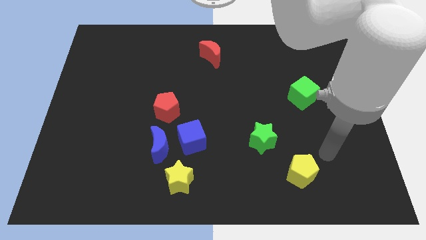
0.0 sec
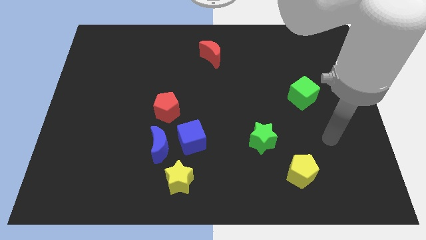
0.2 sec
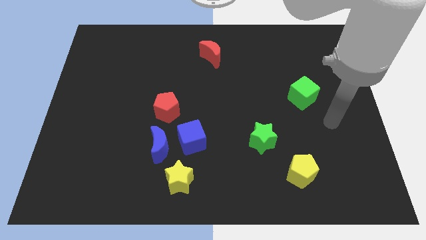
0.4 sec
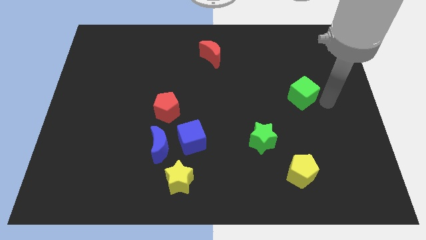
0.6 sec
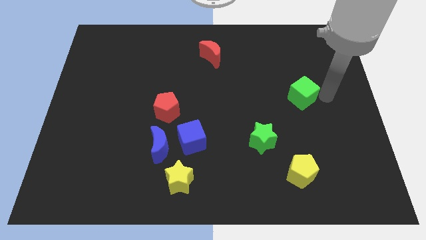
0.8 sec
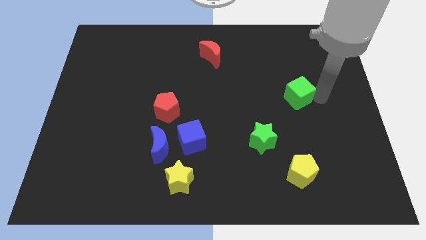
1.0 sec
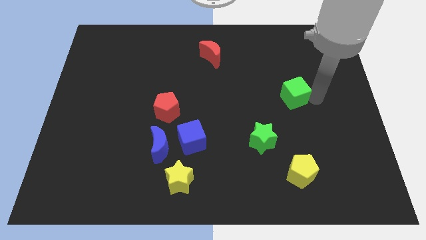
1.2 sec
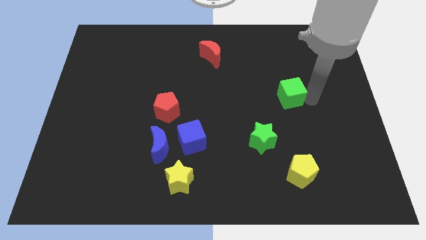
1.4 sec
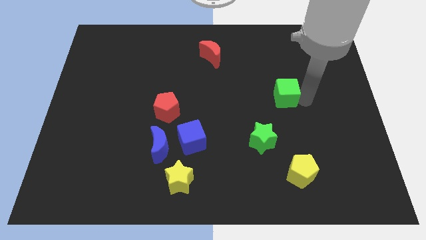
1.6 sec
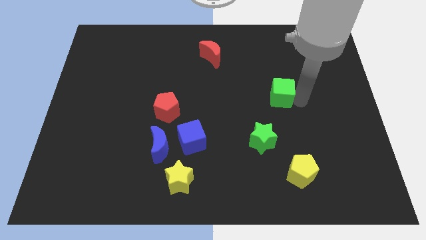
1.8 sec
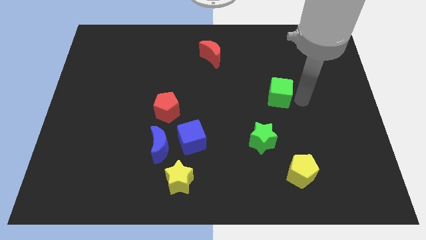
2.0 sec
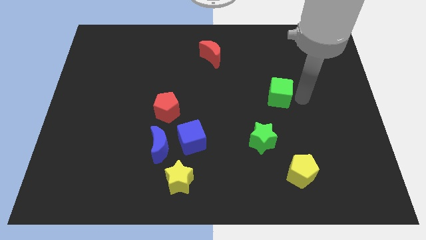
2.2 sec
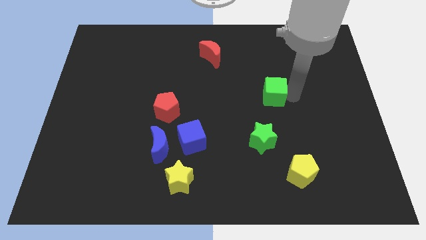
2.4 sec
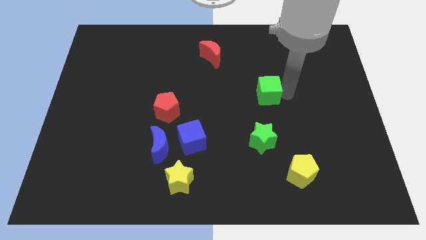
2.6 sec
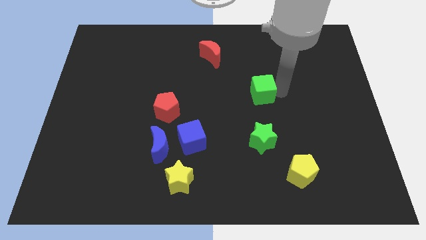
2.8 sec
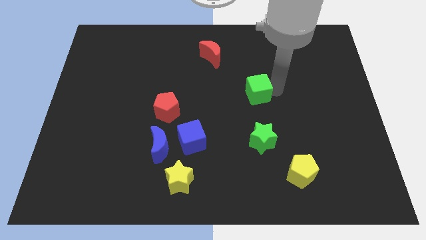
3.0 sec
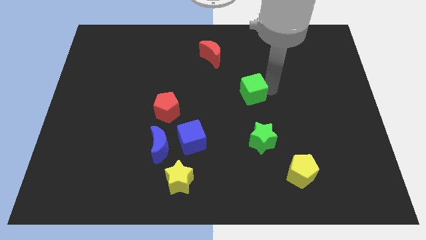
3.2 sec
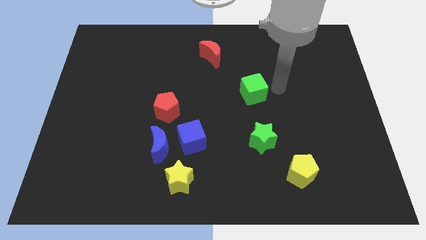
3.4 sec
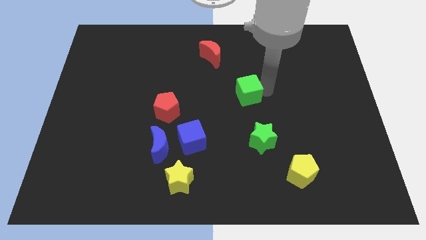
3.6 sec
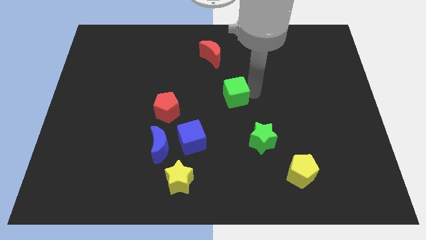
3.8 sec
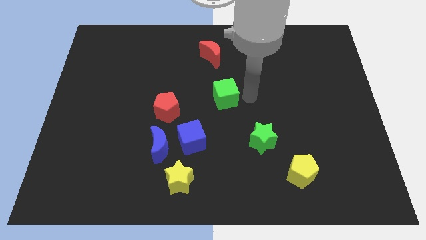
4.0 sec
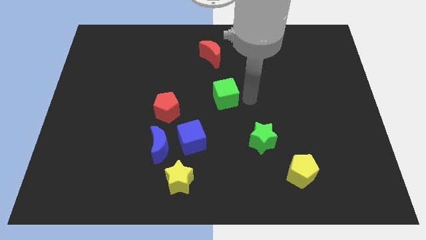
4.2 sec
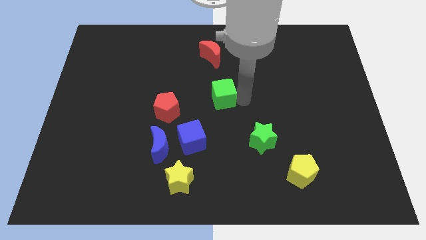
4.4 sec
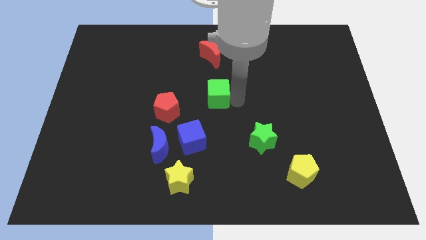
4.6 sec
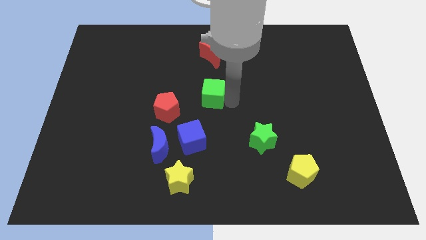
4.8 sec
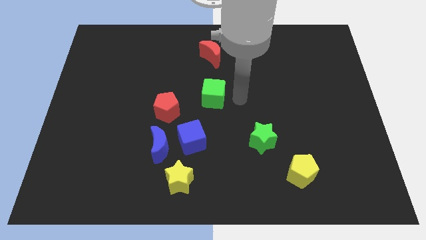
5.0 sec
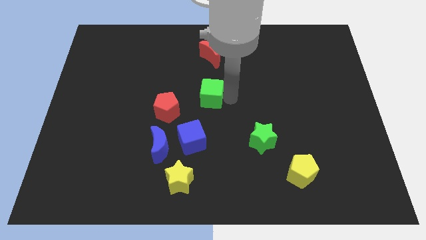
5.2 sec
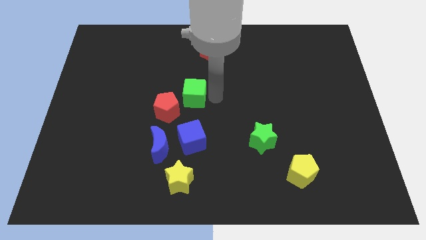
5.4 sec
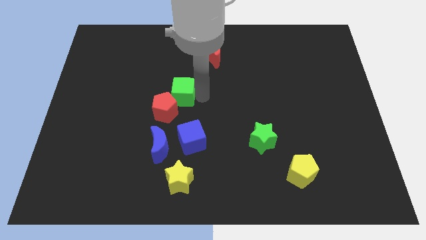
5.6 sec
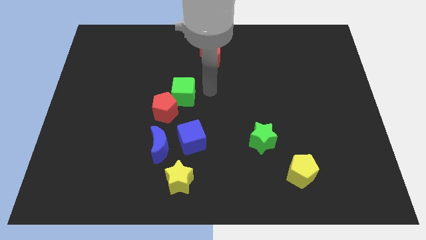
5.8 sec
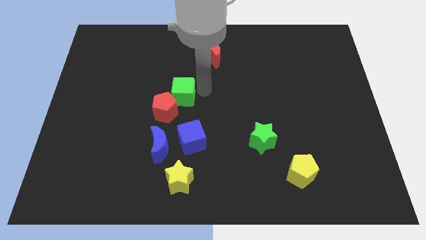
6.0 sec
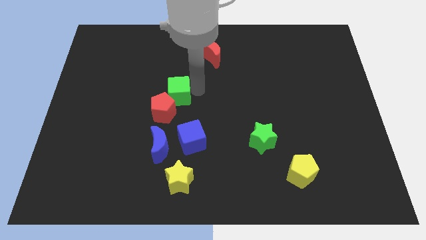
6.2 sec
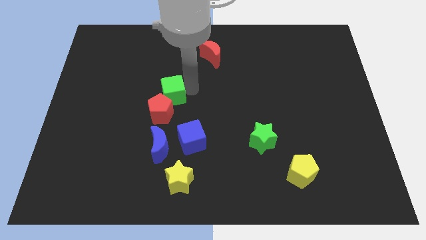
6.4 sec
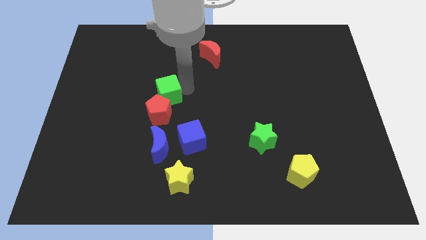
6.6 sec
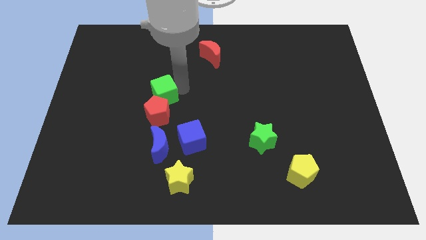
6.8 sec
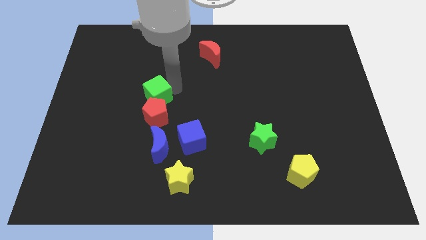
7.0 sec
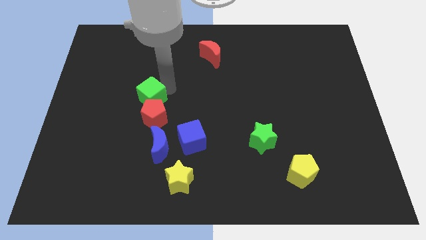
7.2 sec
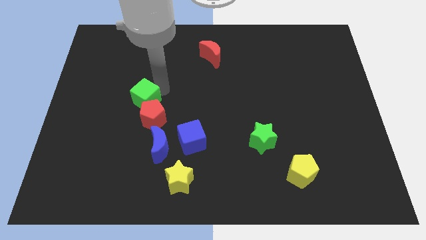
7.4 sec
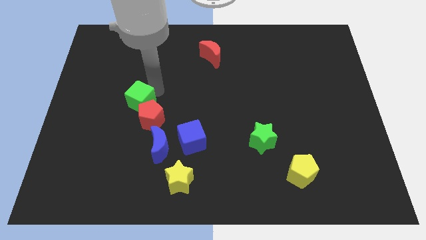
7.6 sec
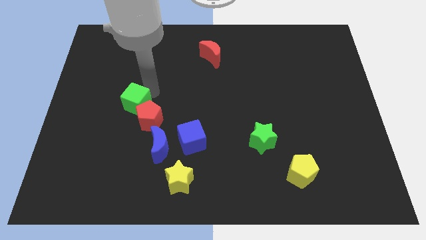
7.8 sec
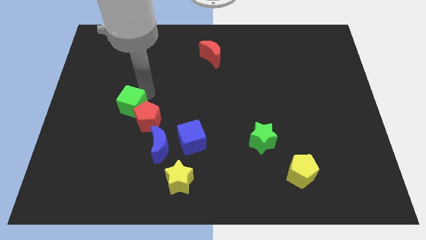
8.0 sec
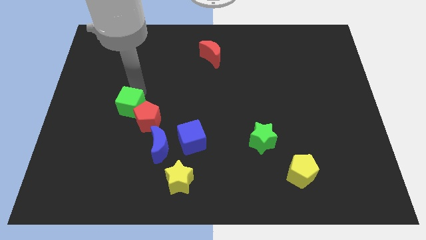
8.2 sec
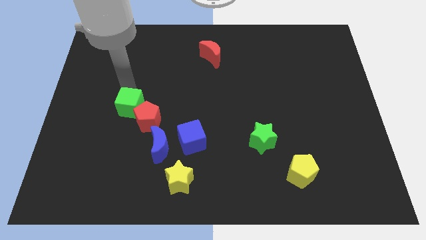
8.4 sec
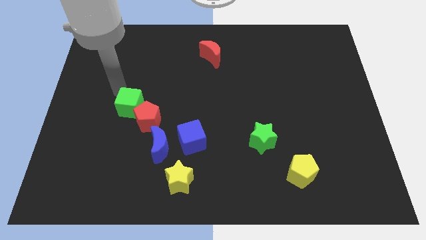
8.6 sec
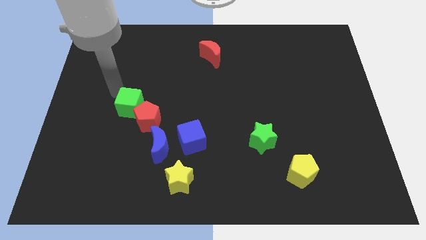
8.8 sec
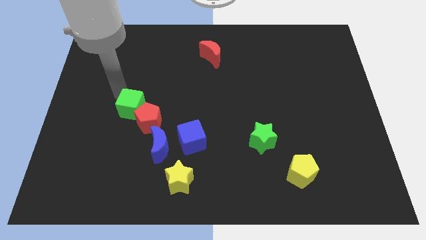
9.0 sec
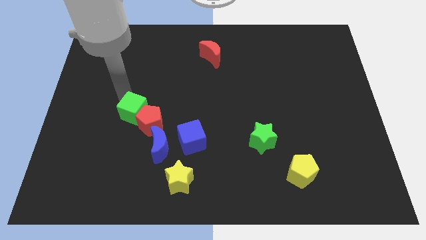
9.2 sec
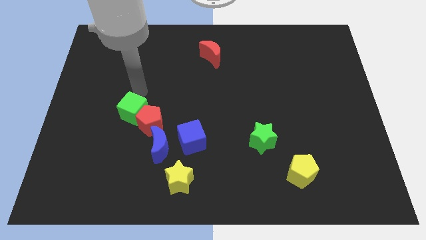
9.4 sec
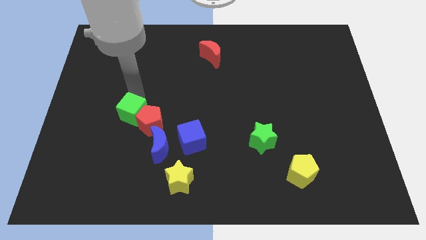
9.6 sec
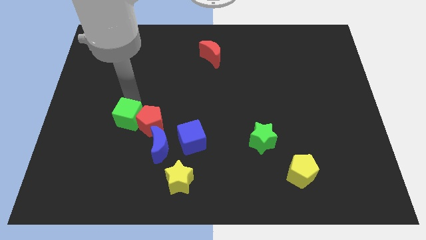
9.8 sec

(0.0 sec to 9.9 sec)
push the green cube to the bottom left side of the red pentagon

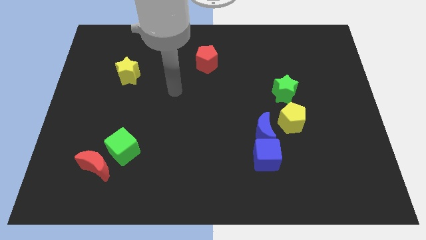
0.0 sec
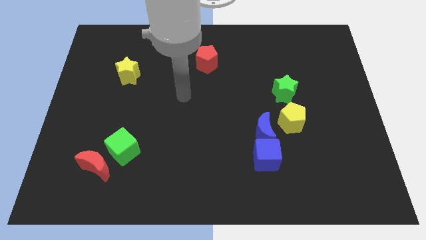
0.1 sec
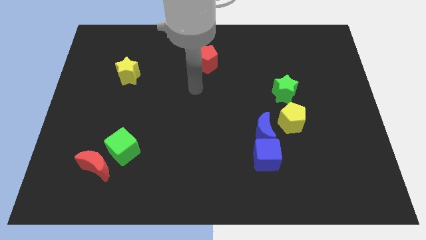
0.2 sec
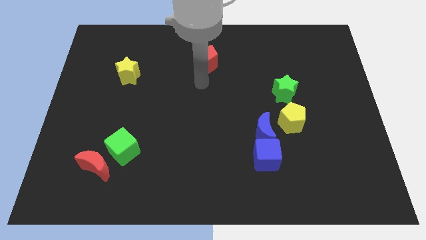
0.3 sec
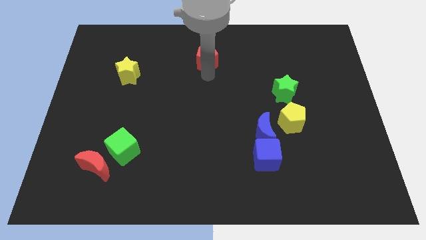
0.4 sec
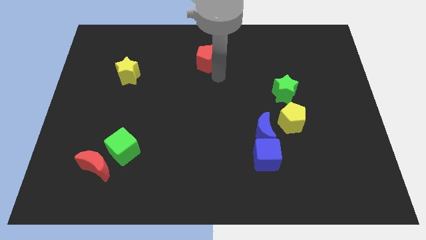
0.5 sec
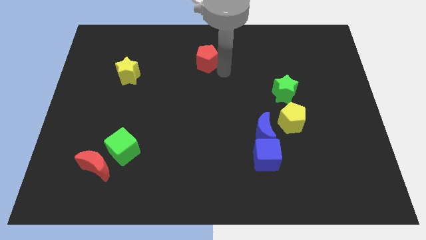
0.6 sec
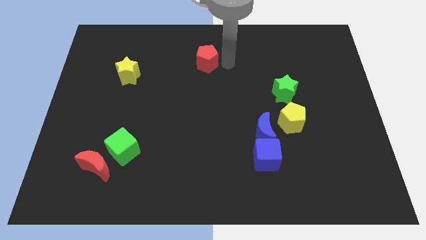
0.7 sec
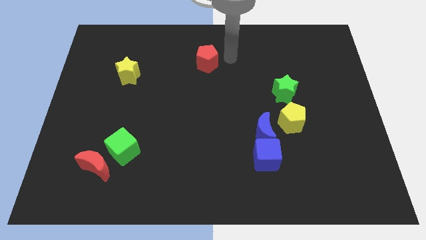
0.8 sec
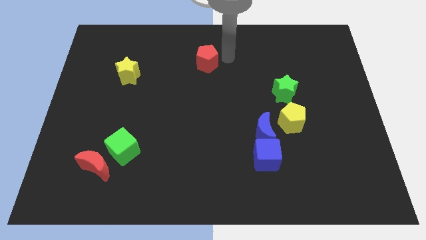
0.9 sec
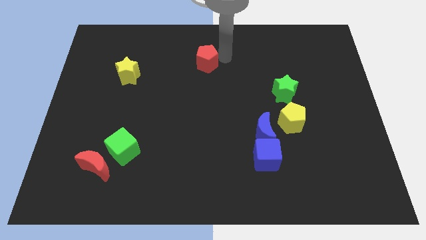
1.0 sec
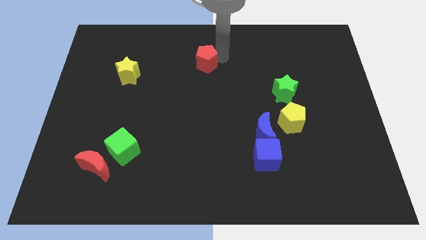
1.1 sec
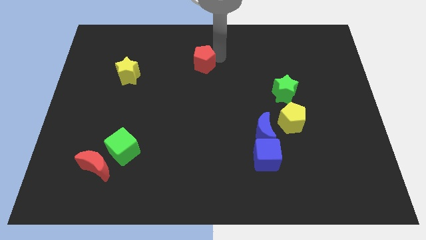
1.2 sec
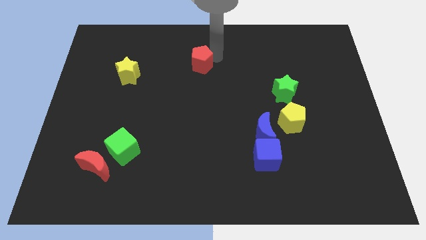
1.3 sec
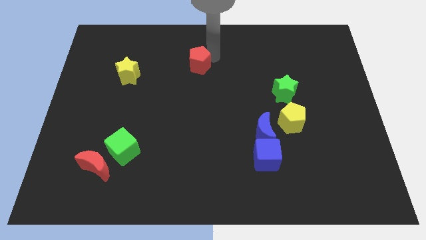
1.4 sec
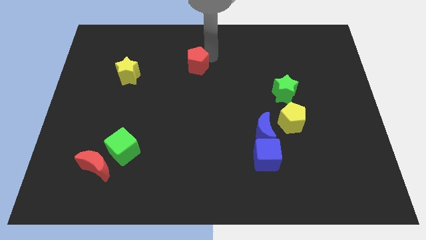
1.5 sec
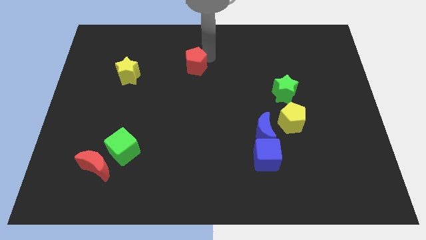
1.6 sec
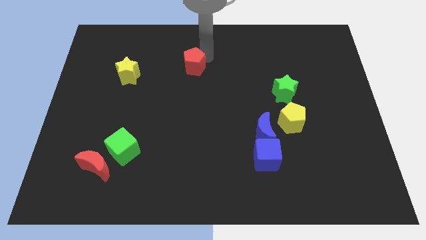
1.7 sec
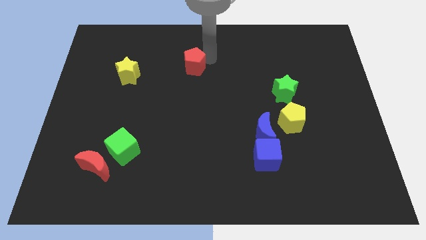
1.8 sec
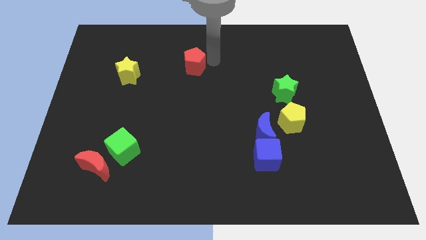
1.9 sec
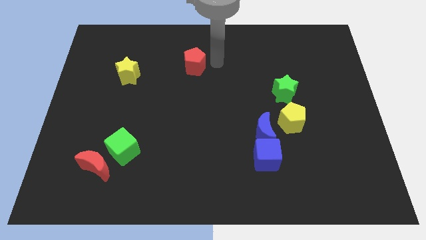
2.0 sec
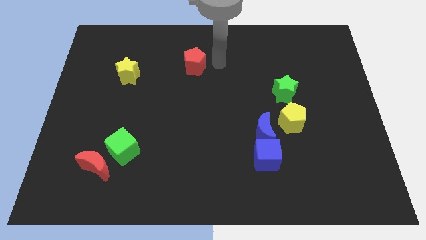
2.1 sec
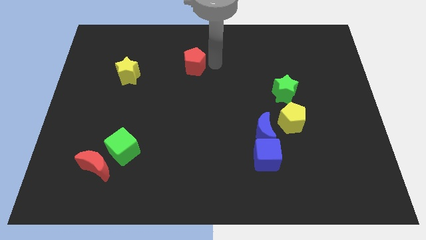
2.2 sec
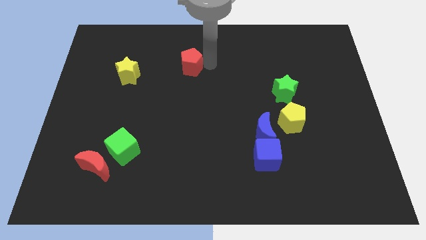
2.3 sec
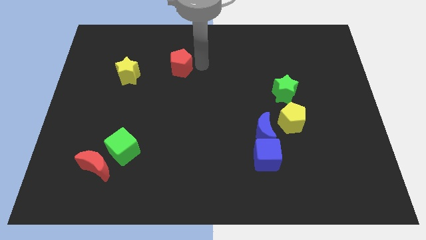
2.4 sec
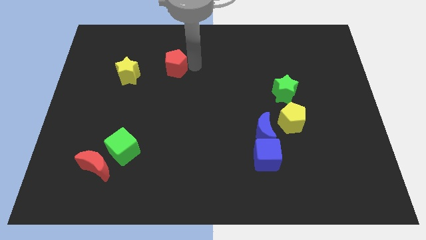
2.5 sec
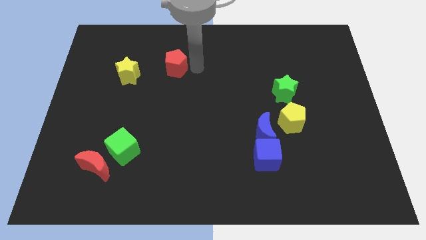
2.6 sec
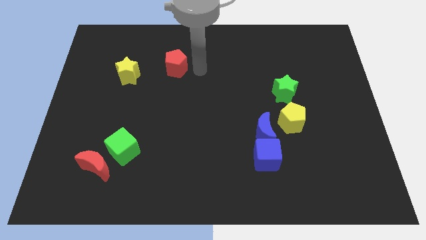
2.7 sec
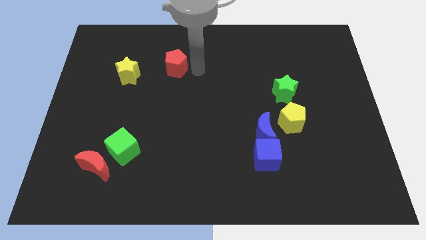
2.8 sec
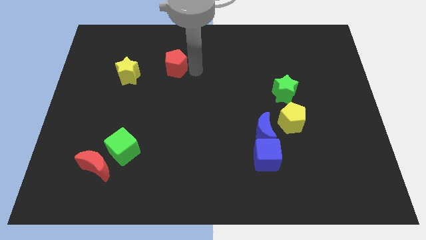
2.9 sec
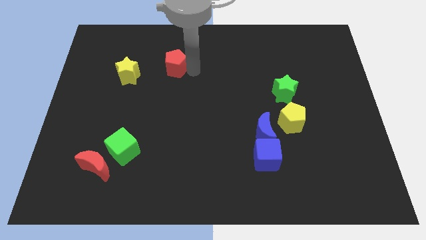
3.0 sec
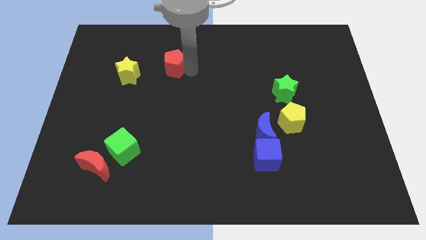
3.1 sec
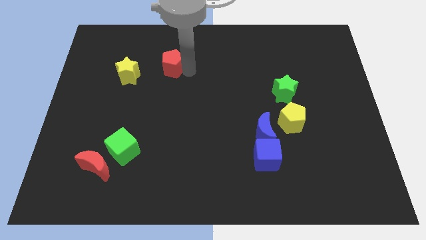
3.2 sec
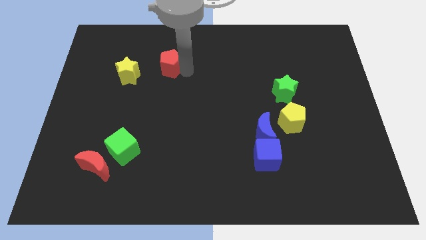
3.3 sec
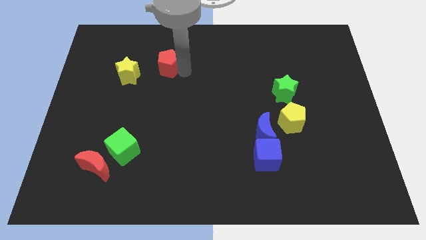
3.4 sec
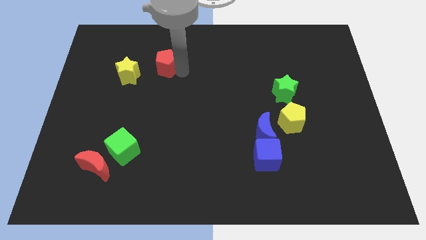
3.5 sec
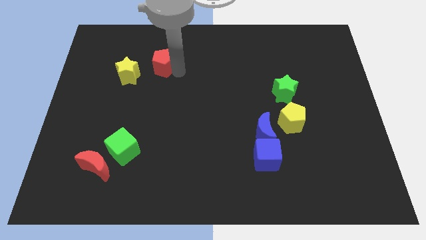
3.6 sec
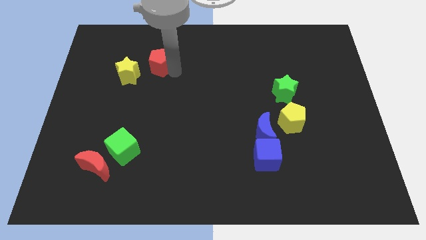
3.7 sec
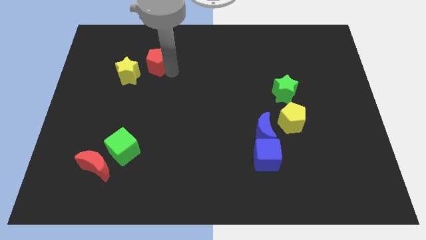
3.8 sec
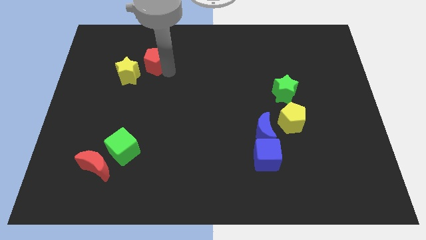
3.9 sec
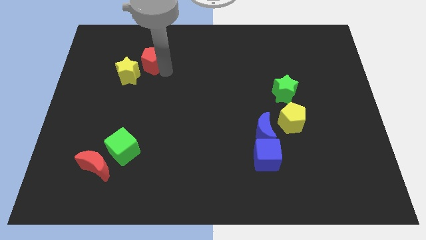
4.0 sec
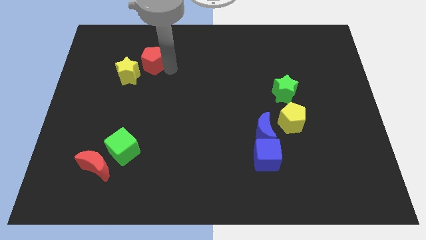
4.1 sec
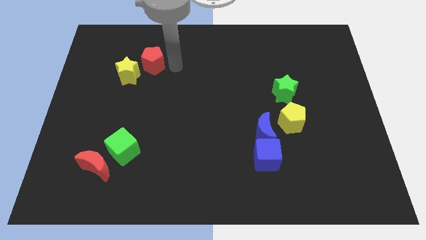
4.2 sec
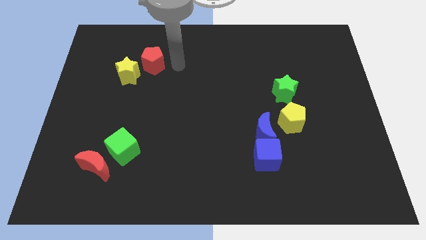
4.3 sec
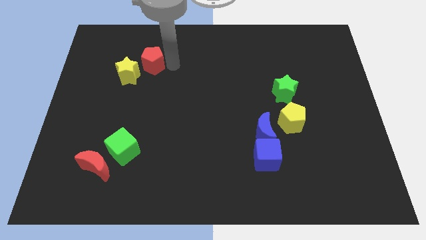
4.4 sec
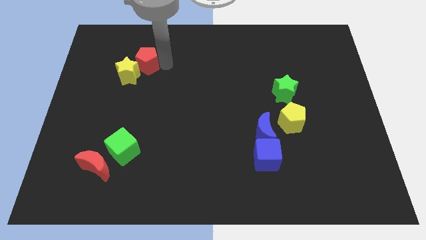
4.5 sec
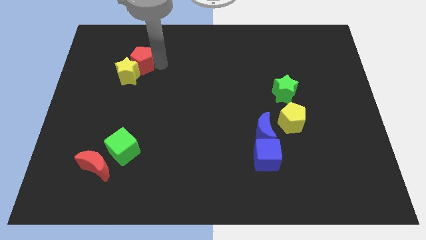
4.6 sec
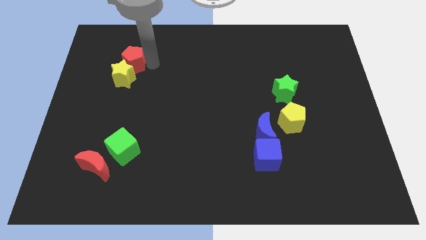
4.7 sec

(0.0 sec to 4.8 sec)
push the red pentagon to the top left side of the yellow star
